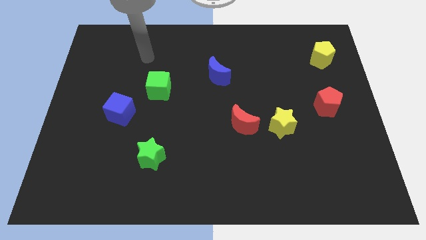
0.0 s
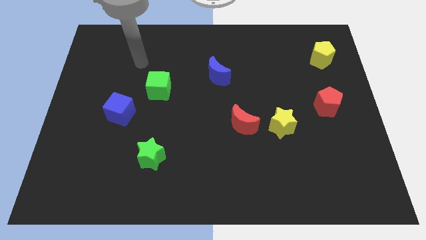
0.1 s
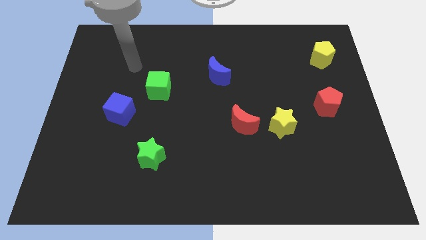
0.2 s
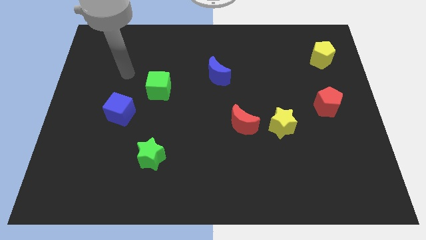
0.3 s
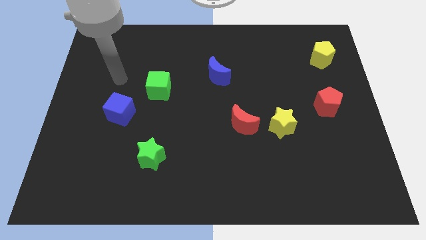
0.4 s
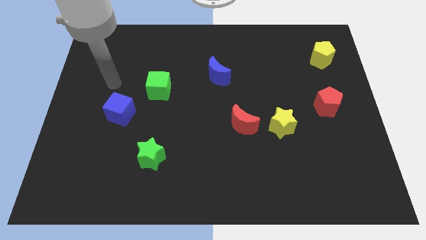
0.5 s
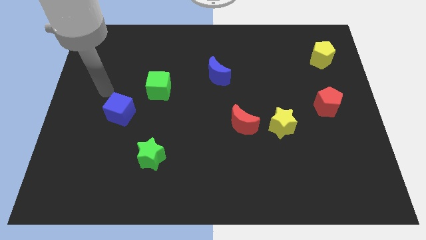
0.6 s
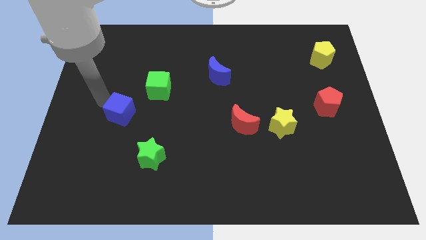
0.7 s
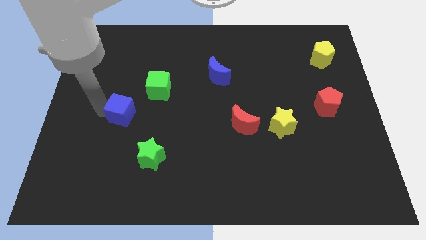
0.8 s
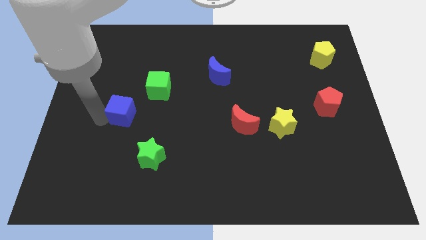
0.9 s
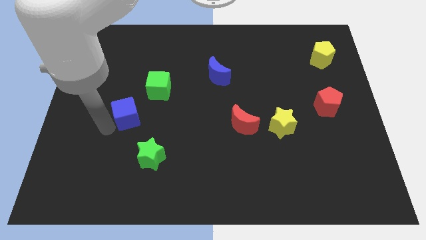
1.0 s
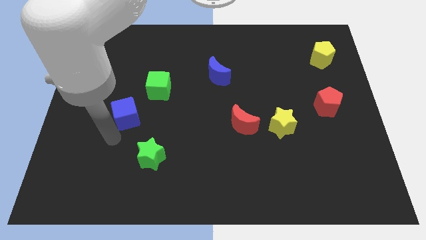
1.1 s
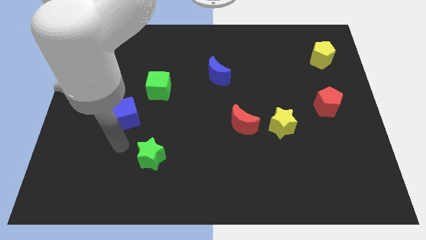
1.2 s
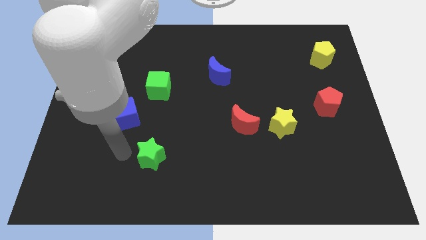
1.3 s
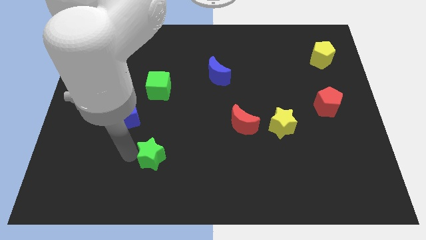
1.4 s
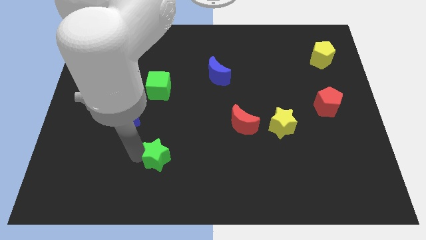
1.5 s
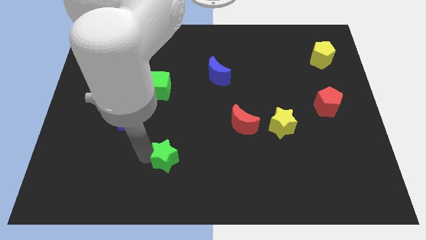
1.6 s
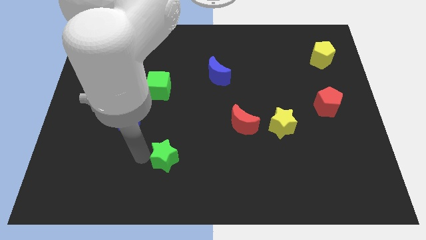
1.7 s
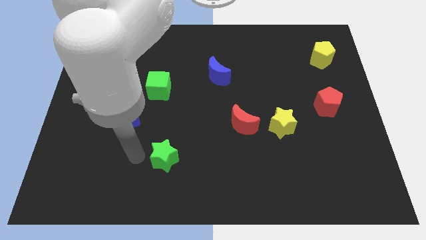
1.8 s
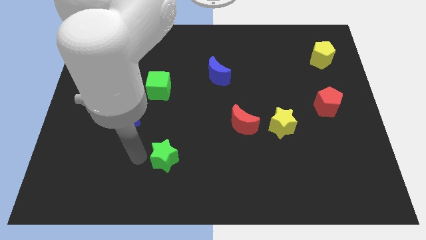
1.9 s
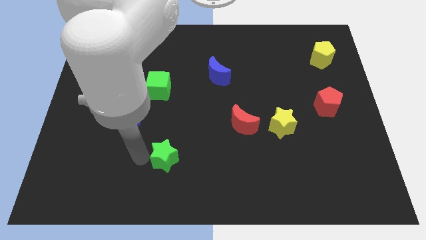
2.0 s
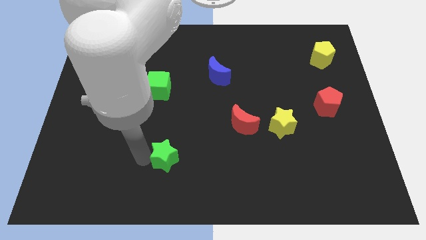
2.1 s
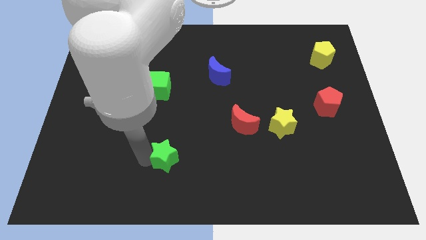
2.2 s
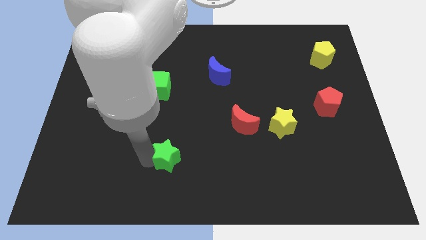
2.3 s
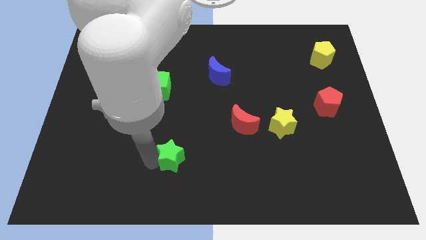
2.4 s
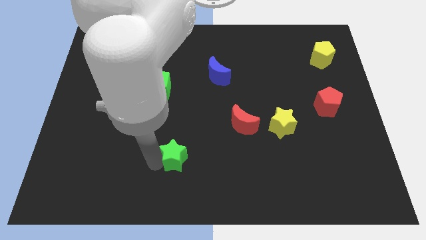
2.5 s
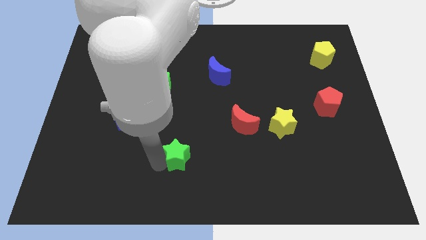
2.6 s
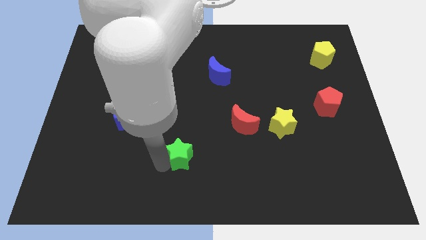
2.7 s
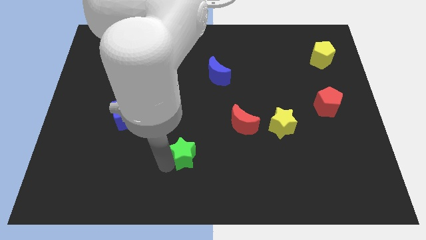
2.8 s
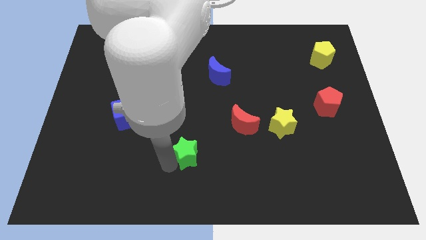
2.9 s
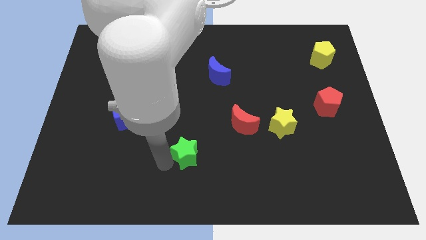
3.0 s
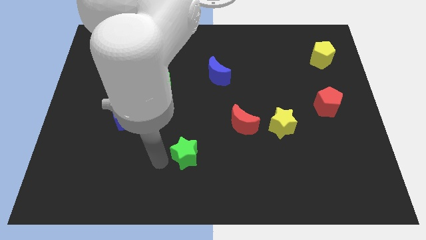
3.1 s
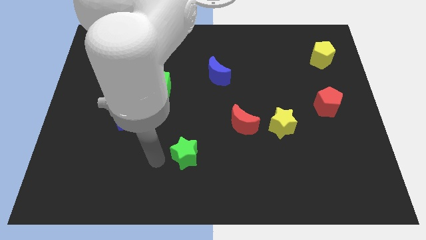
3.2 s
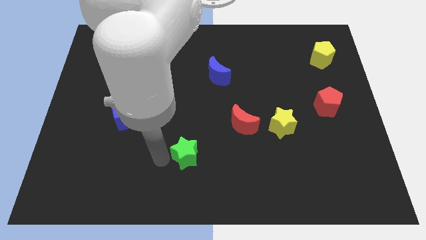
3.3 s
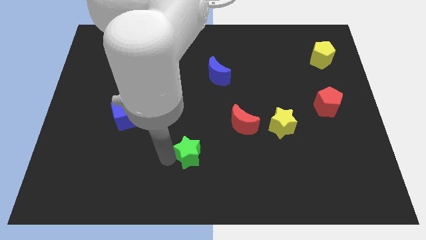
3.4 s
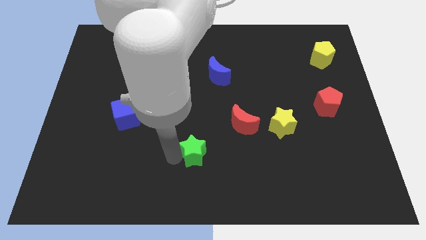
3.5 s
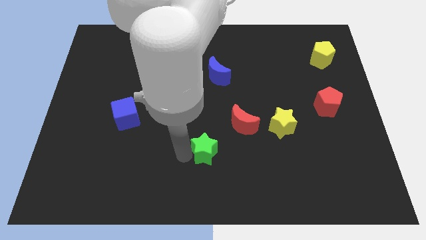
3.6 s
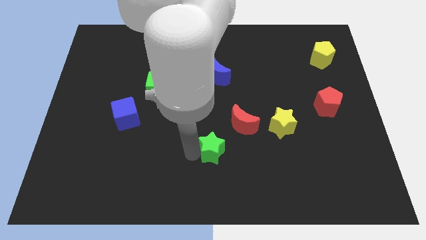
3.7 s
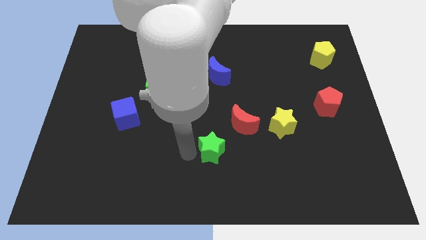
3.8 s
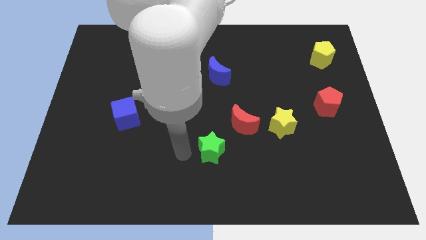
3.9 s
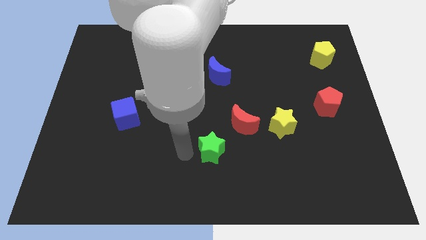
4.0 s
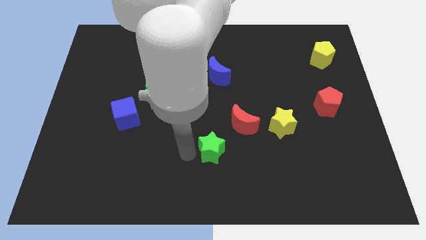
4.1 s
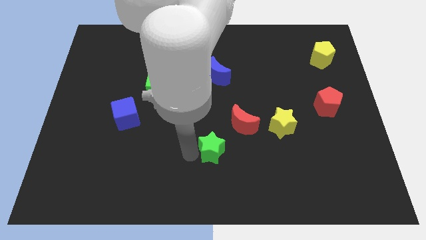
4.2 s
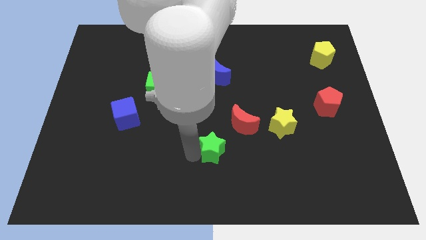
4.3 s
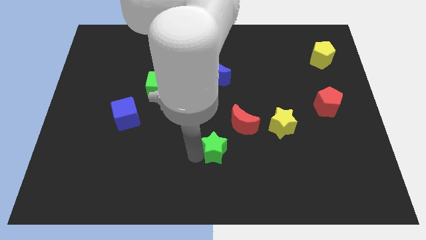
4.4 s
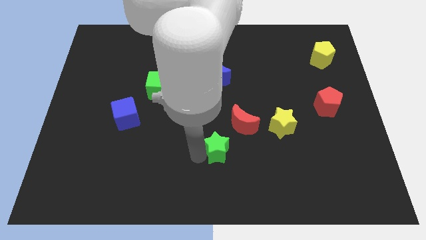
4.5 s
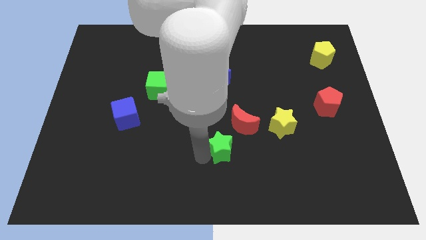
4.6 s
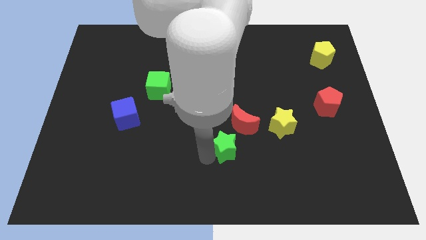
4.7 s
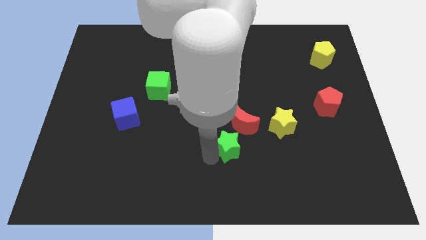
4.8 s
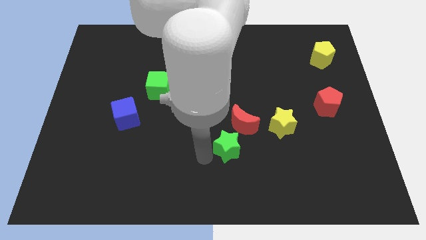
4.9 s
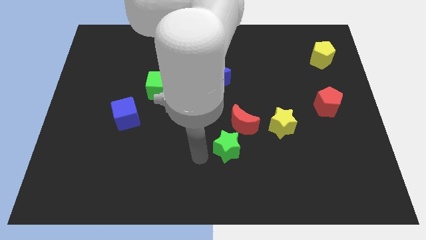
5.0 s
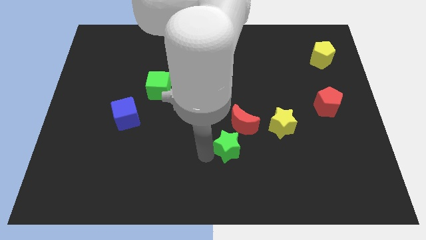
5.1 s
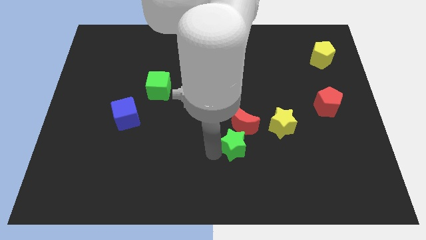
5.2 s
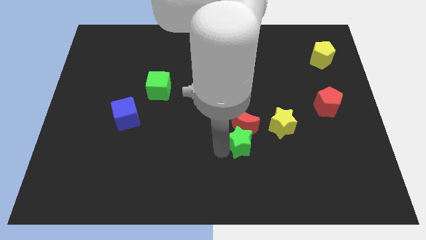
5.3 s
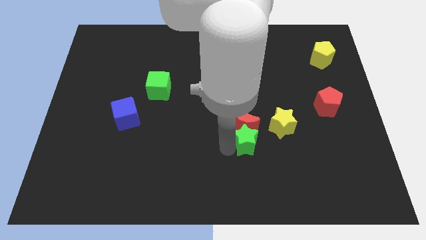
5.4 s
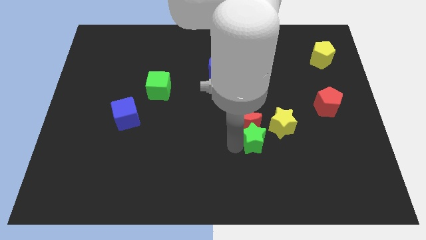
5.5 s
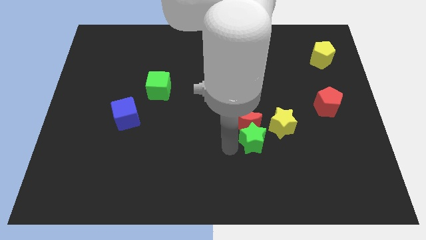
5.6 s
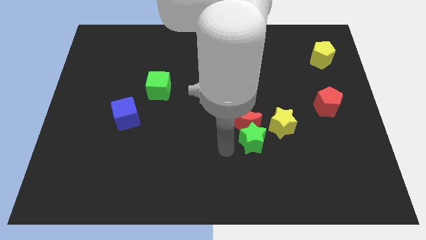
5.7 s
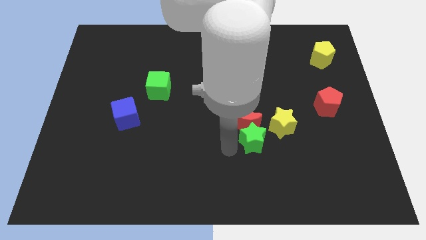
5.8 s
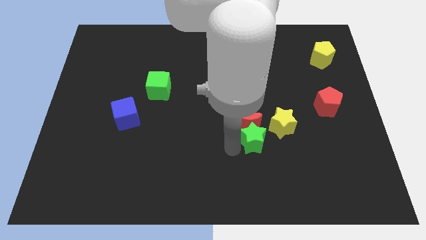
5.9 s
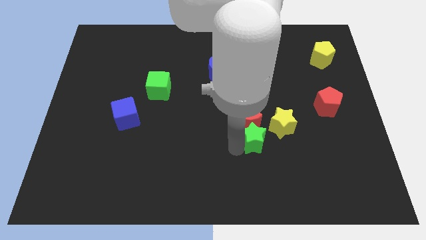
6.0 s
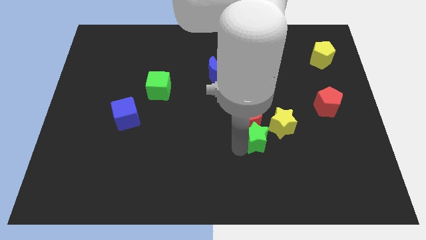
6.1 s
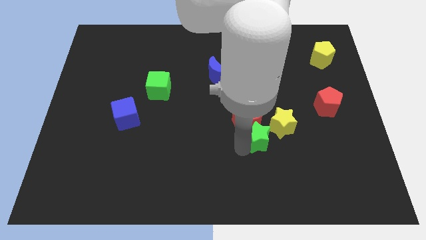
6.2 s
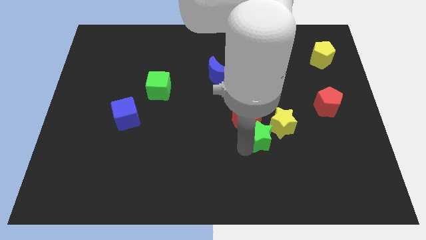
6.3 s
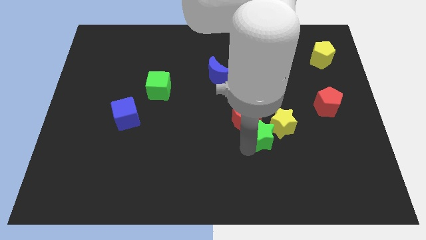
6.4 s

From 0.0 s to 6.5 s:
put the green star towards the yellow star

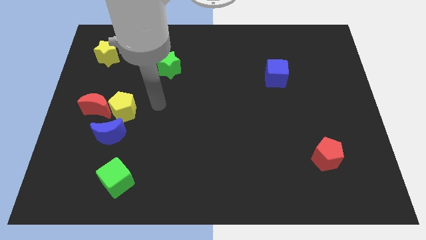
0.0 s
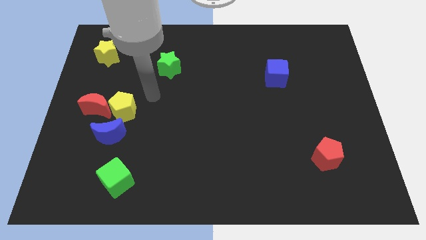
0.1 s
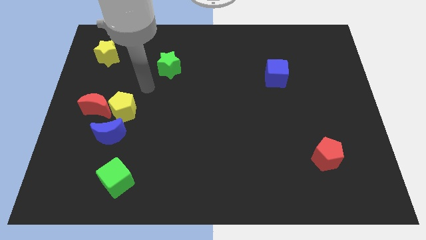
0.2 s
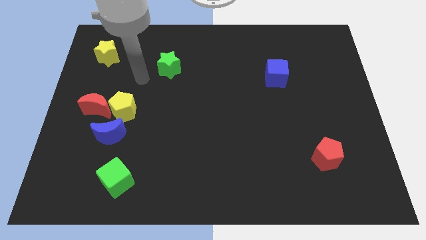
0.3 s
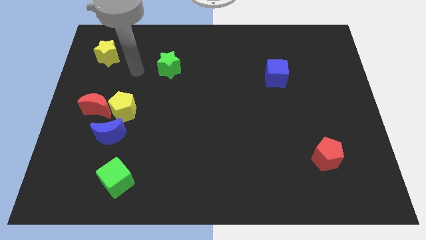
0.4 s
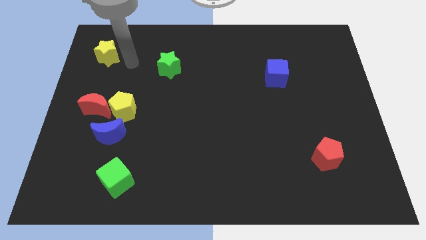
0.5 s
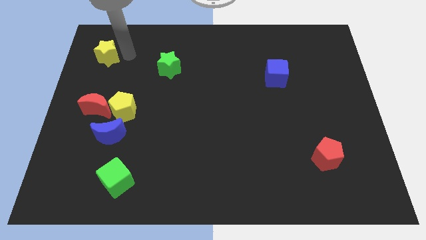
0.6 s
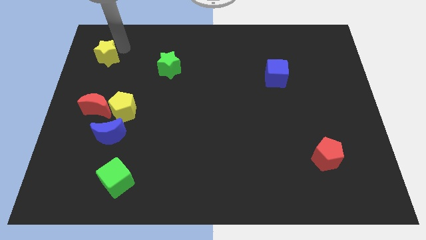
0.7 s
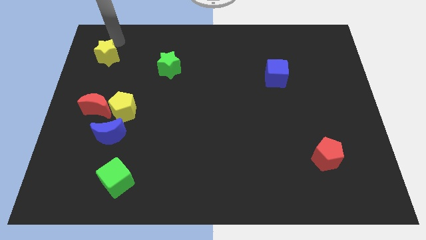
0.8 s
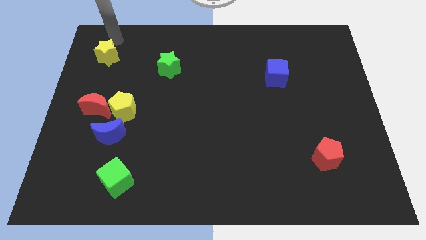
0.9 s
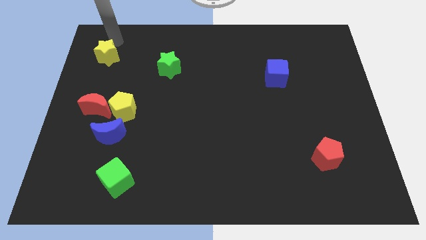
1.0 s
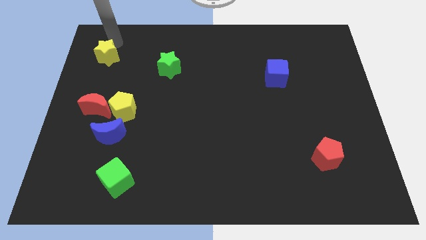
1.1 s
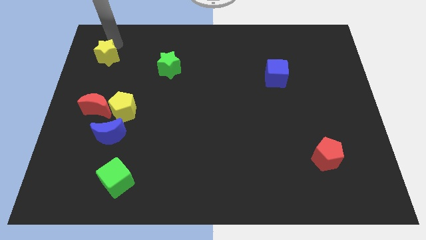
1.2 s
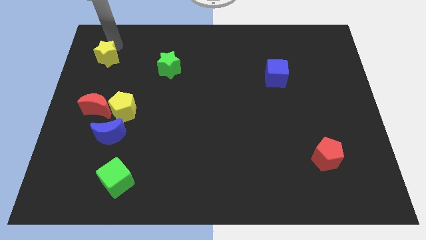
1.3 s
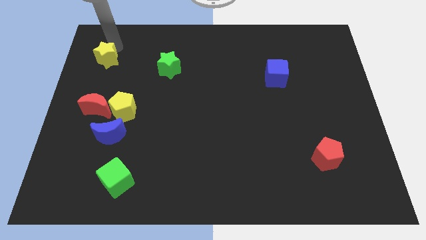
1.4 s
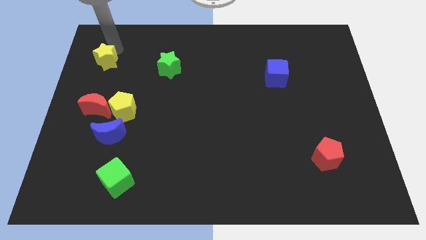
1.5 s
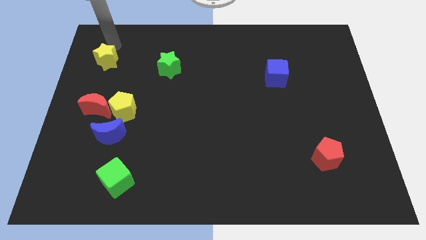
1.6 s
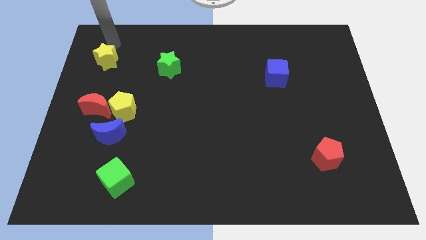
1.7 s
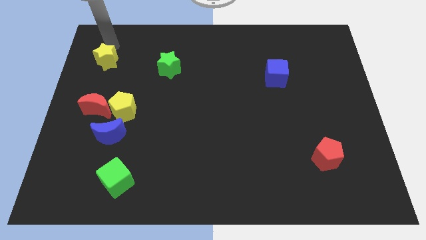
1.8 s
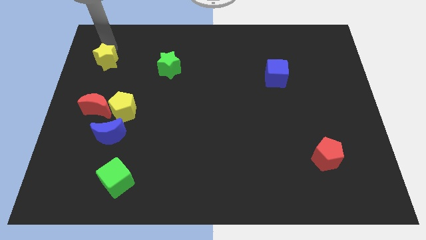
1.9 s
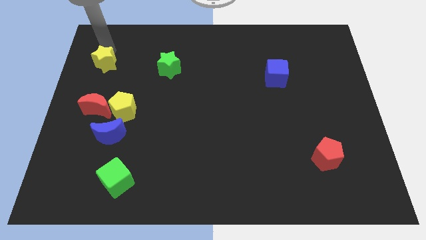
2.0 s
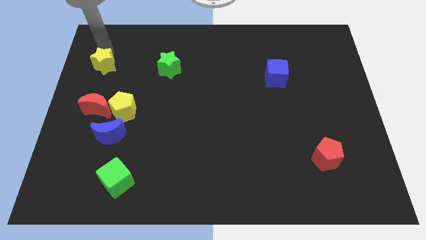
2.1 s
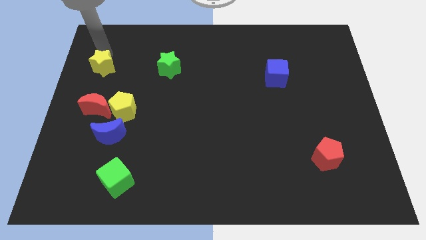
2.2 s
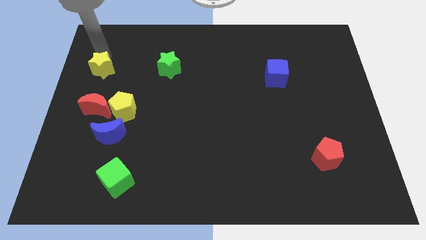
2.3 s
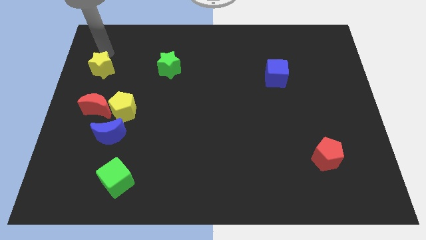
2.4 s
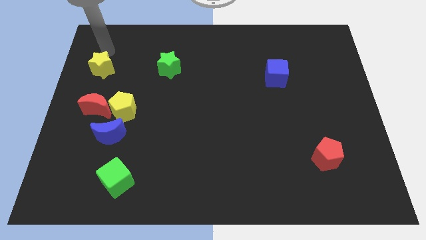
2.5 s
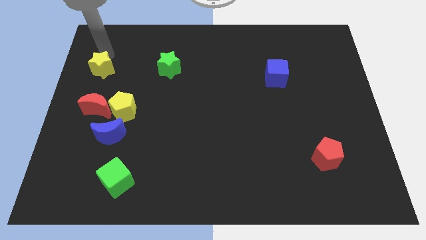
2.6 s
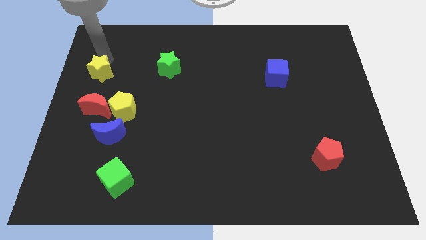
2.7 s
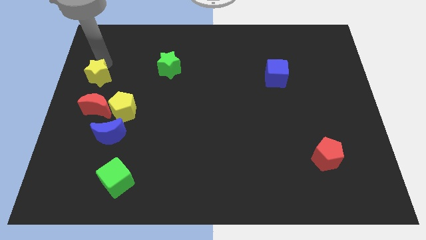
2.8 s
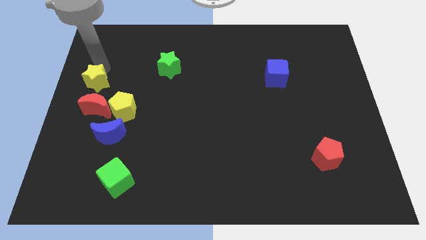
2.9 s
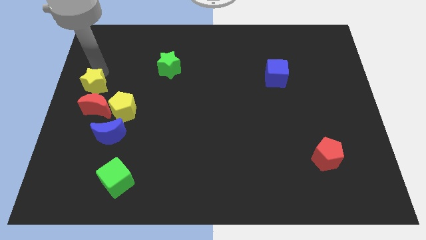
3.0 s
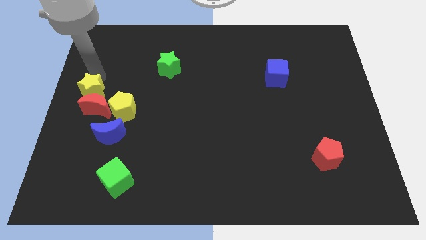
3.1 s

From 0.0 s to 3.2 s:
push the yellow star towards the red moon
